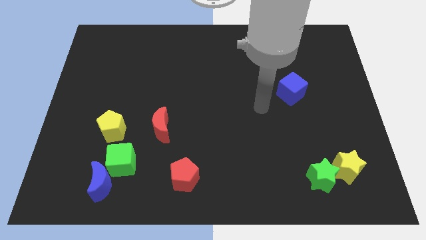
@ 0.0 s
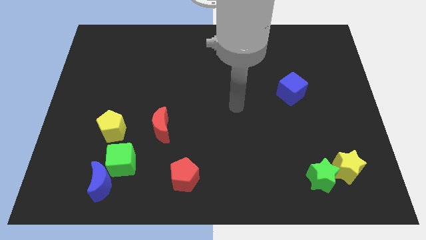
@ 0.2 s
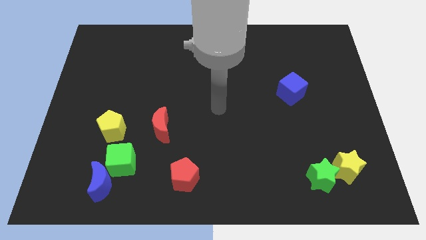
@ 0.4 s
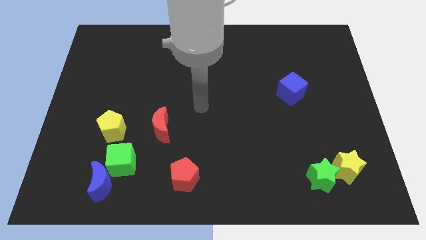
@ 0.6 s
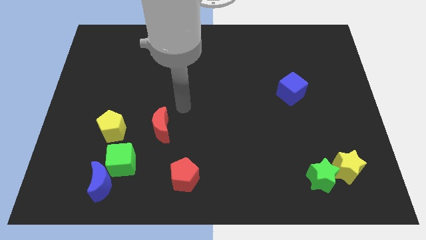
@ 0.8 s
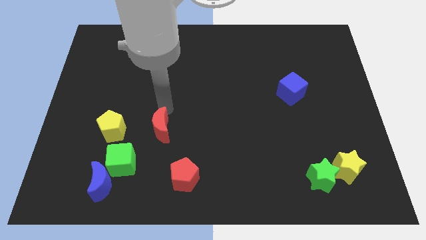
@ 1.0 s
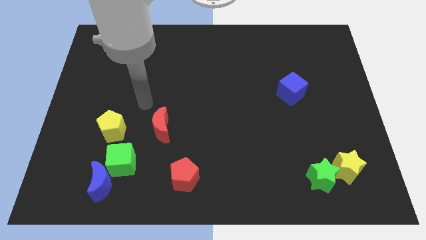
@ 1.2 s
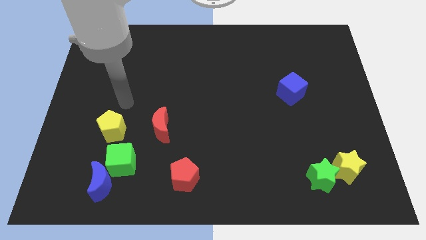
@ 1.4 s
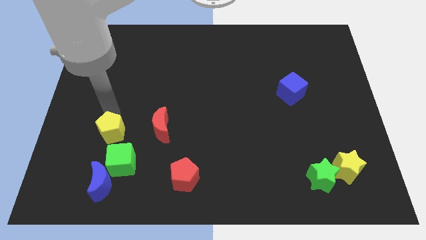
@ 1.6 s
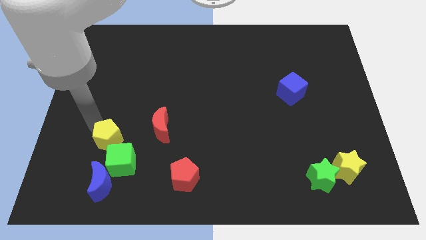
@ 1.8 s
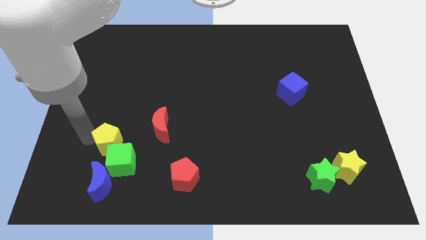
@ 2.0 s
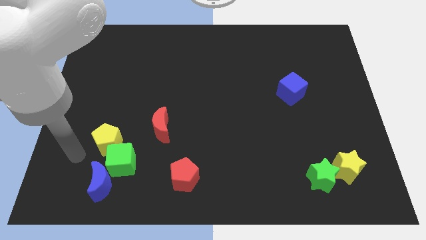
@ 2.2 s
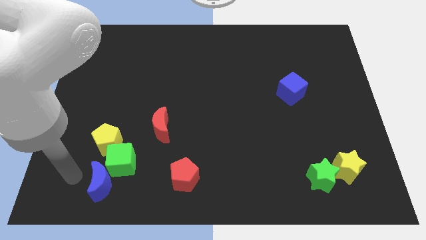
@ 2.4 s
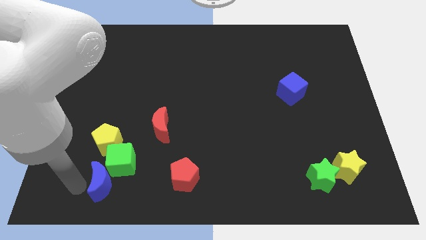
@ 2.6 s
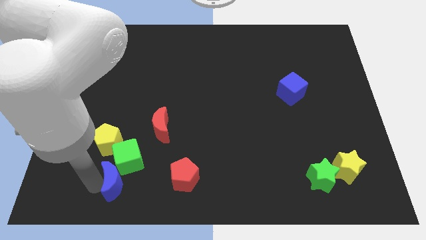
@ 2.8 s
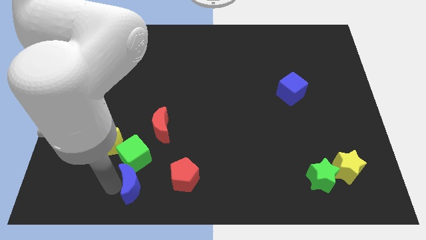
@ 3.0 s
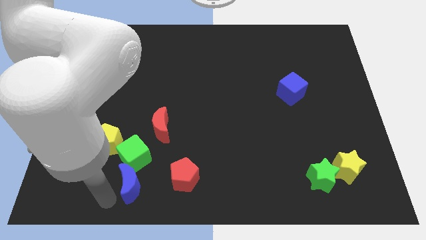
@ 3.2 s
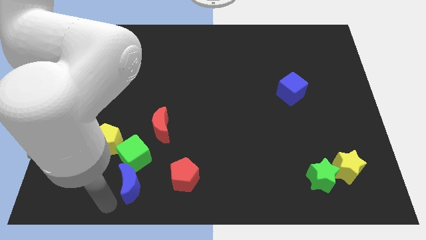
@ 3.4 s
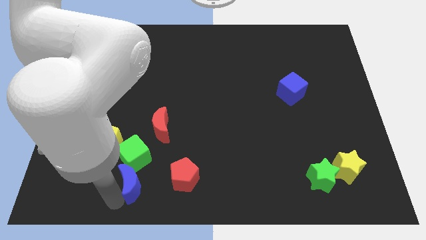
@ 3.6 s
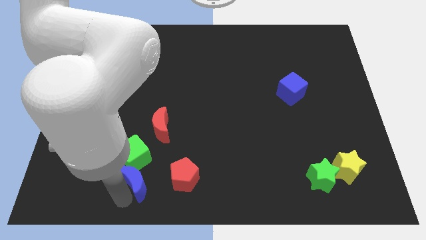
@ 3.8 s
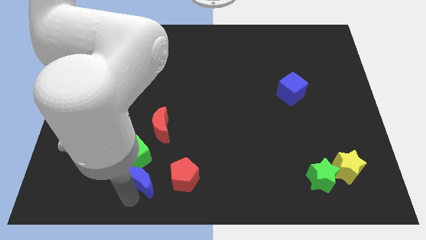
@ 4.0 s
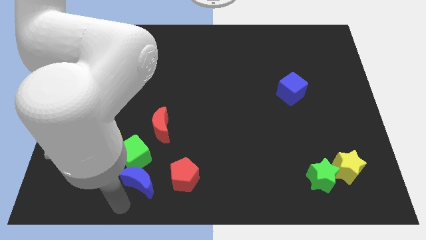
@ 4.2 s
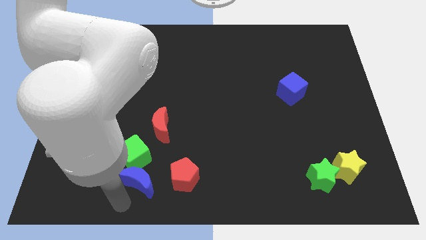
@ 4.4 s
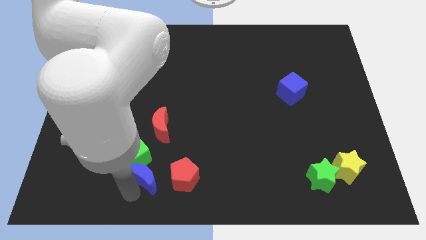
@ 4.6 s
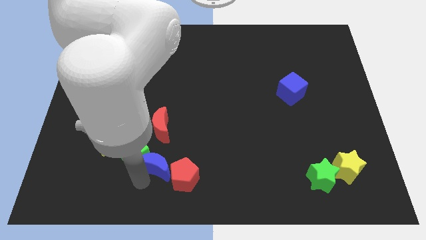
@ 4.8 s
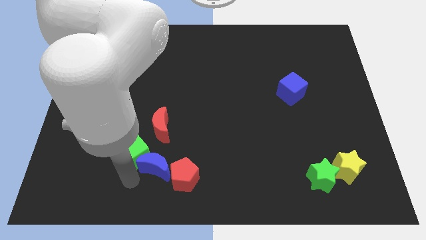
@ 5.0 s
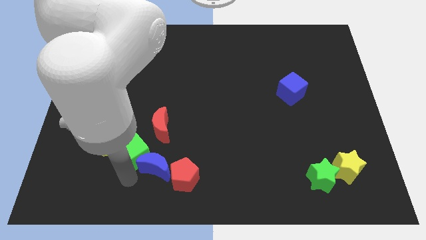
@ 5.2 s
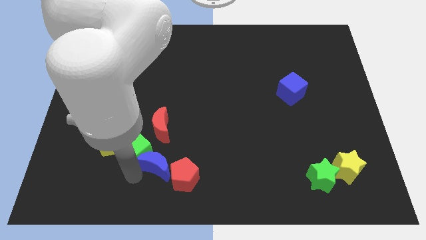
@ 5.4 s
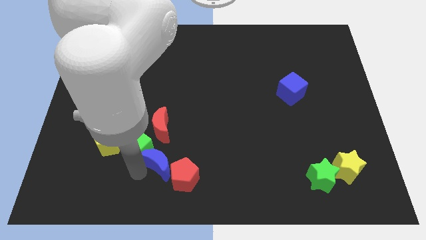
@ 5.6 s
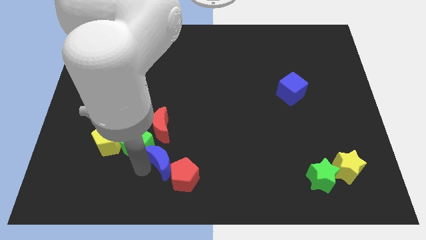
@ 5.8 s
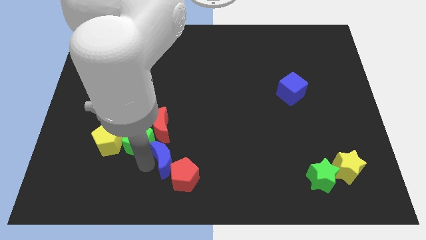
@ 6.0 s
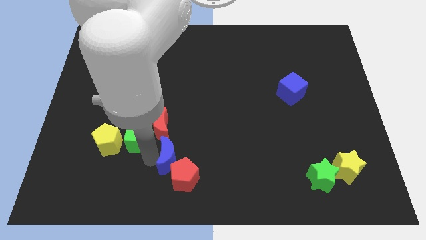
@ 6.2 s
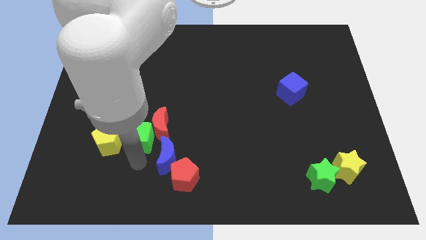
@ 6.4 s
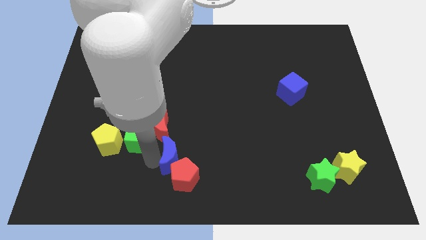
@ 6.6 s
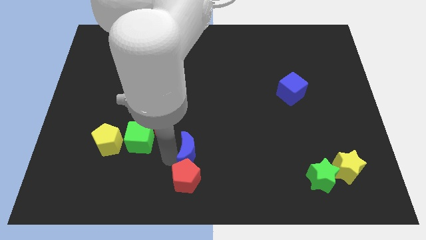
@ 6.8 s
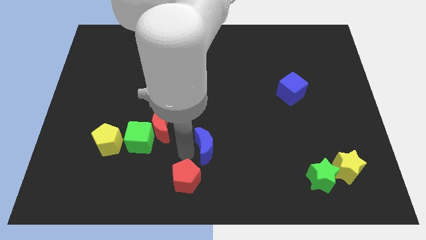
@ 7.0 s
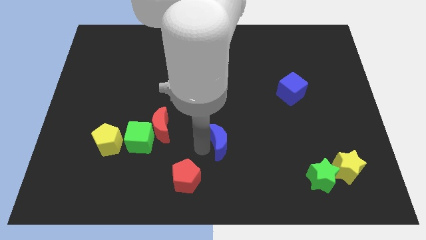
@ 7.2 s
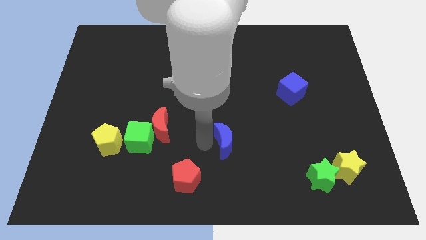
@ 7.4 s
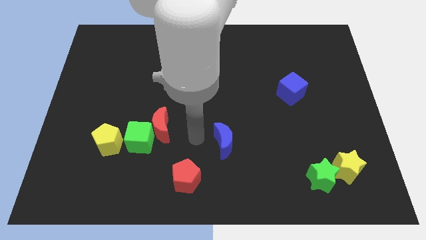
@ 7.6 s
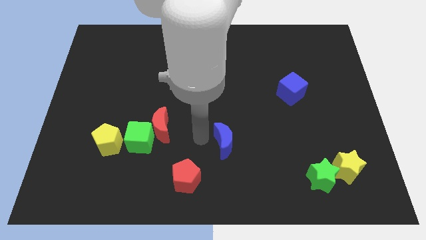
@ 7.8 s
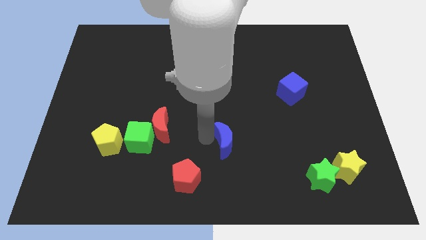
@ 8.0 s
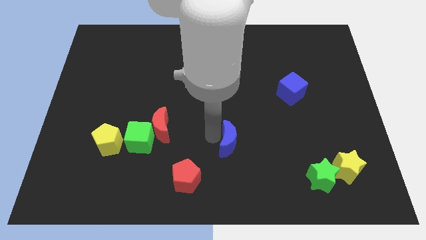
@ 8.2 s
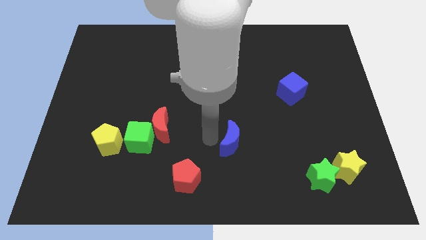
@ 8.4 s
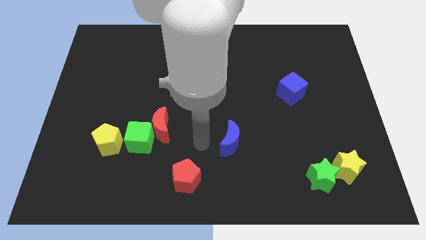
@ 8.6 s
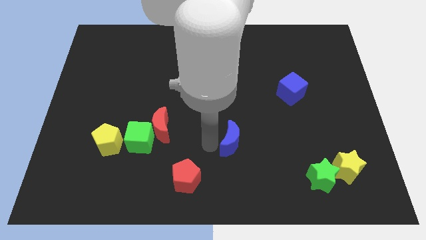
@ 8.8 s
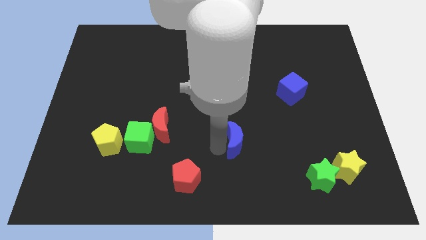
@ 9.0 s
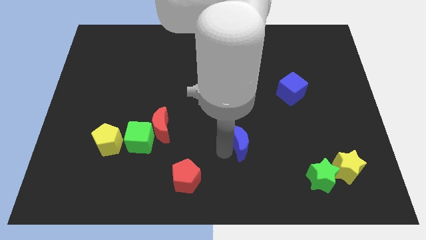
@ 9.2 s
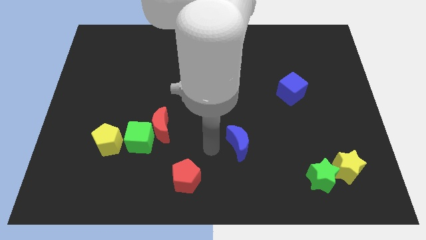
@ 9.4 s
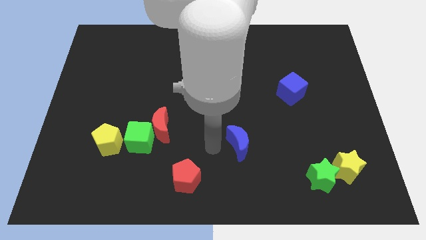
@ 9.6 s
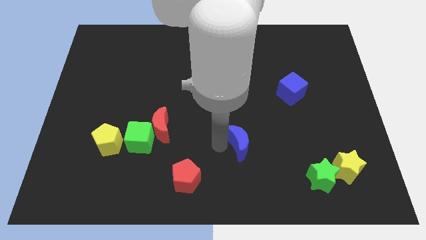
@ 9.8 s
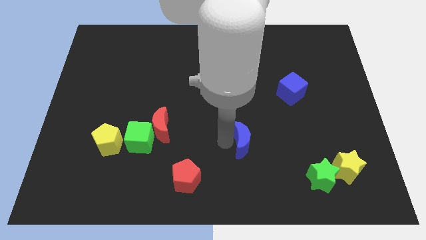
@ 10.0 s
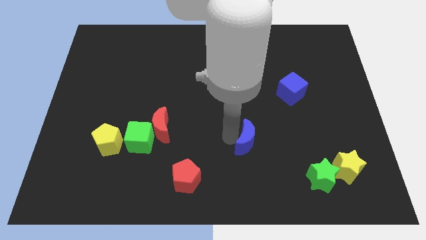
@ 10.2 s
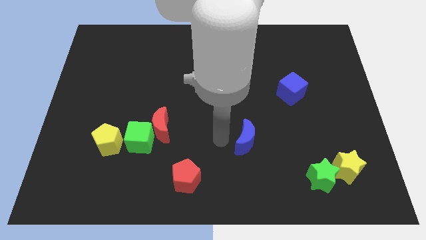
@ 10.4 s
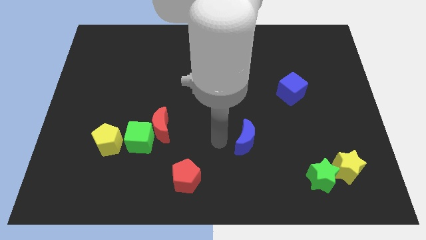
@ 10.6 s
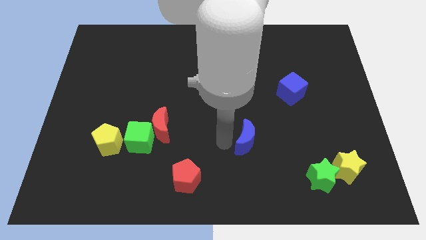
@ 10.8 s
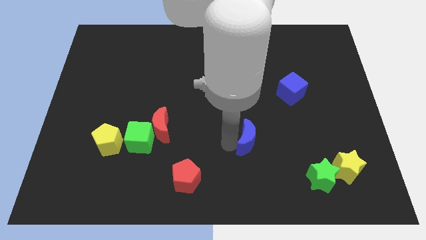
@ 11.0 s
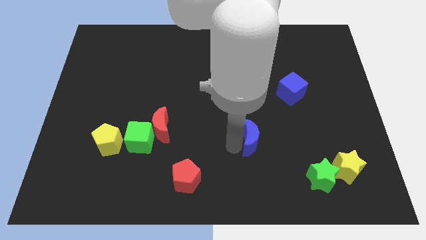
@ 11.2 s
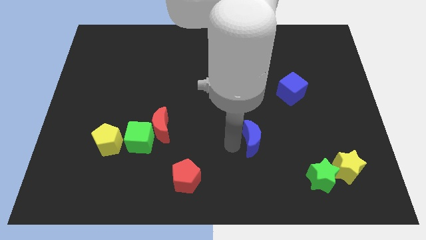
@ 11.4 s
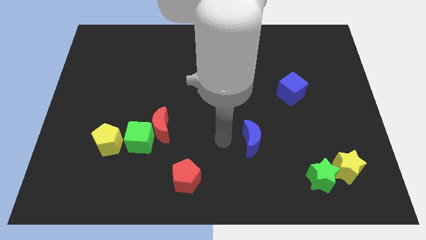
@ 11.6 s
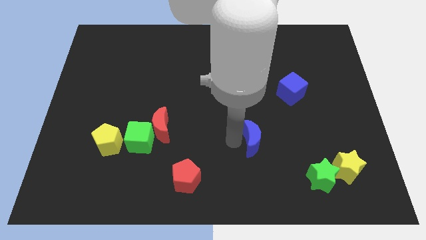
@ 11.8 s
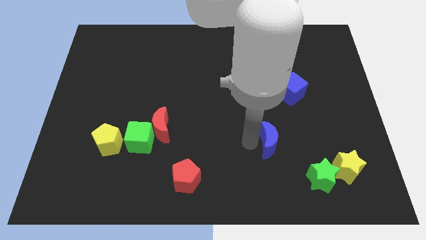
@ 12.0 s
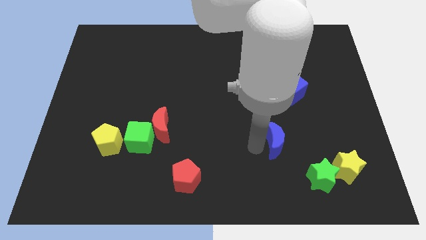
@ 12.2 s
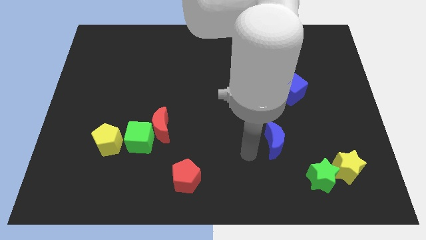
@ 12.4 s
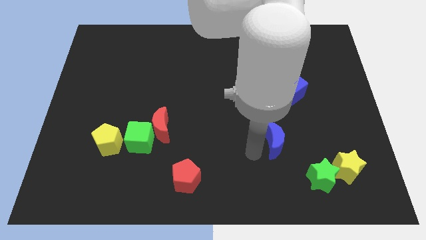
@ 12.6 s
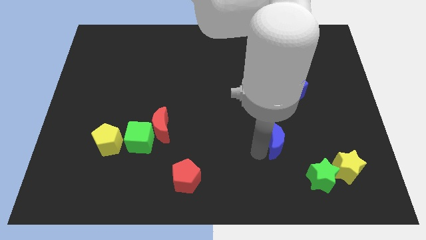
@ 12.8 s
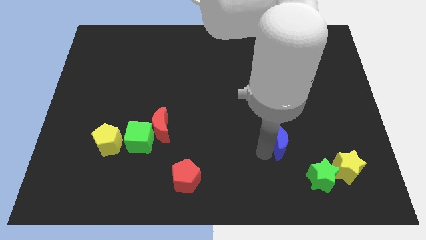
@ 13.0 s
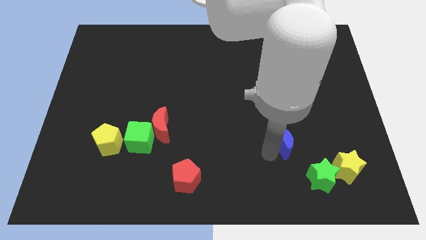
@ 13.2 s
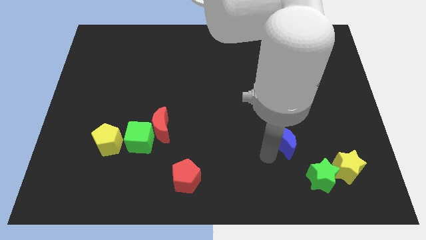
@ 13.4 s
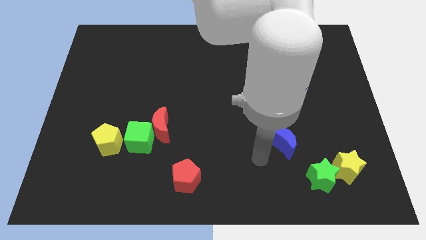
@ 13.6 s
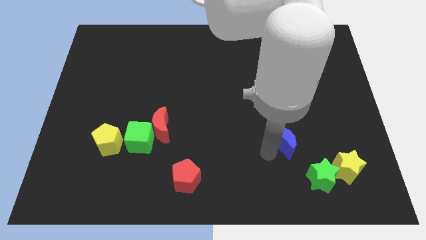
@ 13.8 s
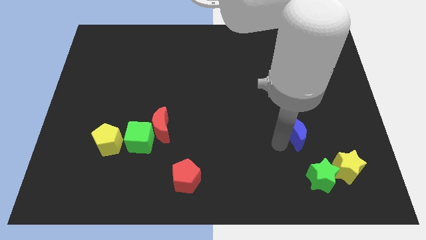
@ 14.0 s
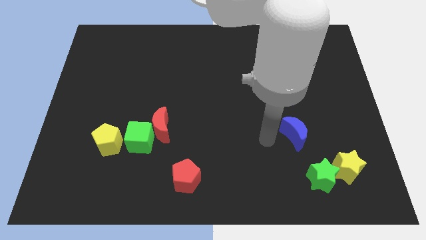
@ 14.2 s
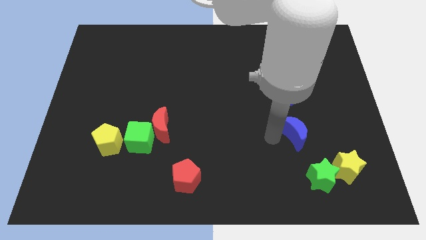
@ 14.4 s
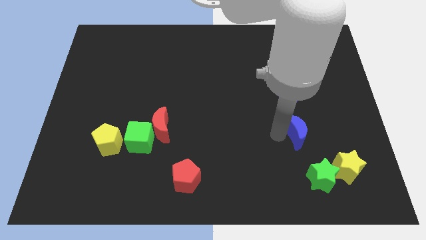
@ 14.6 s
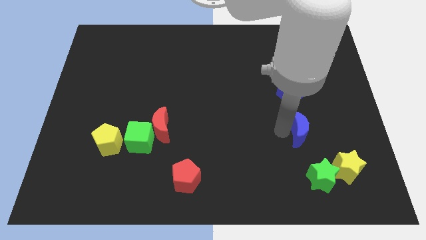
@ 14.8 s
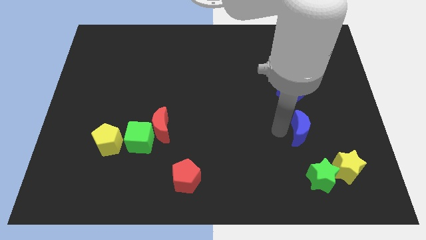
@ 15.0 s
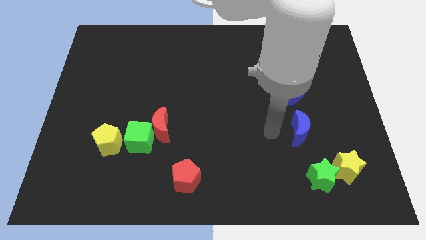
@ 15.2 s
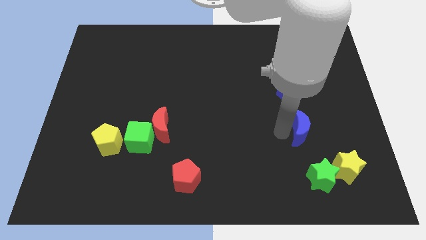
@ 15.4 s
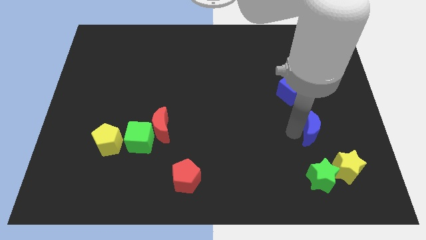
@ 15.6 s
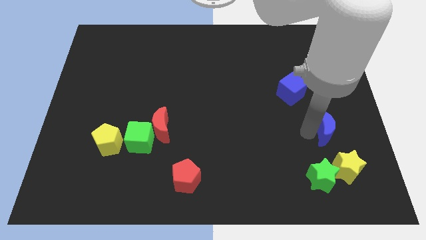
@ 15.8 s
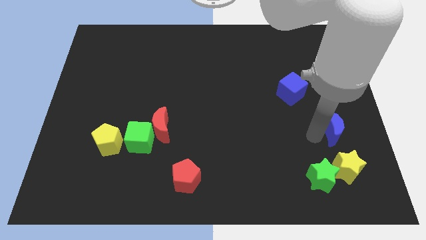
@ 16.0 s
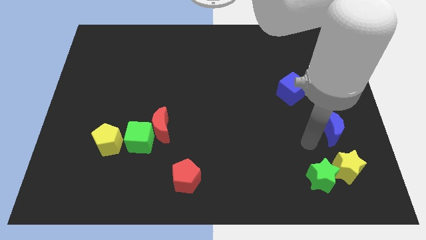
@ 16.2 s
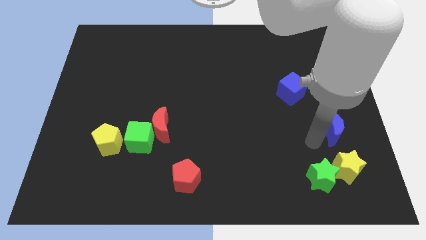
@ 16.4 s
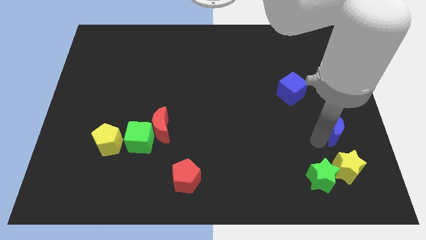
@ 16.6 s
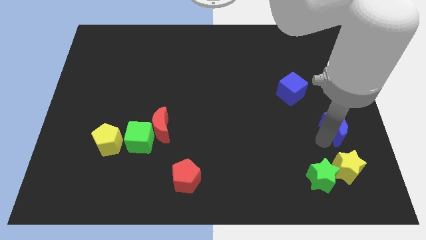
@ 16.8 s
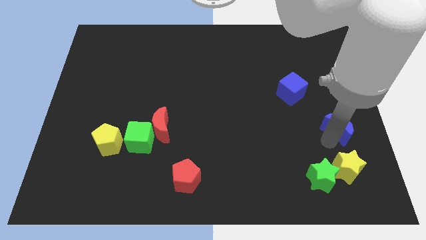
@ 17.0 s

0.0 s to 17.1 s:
slide the blue moon to the right side of the board
